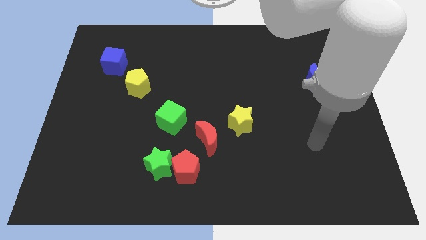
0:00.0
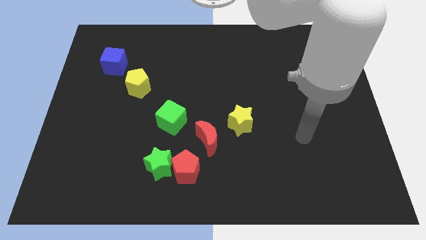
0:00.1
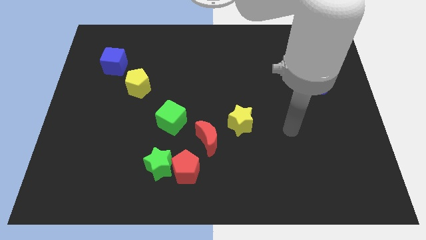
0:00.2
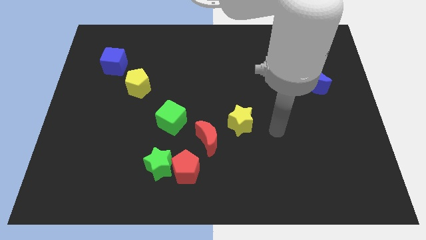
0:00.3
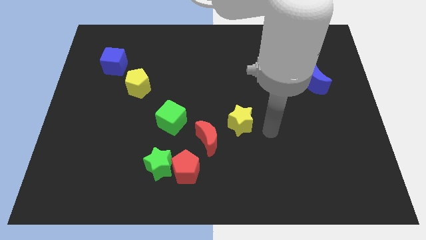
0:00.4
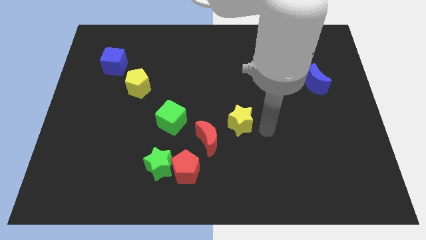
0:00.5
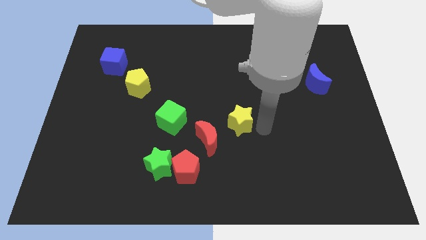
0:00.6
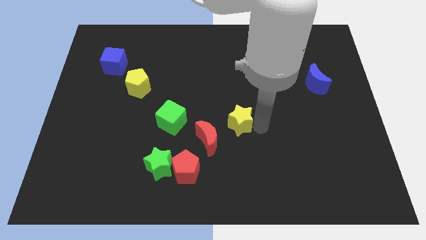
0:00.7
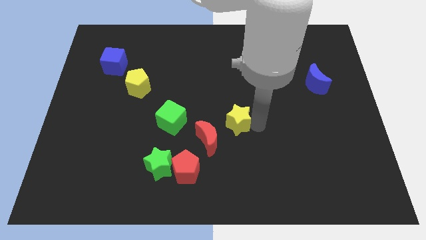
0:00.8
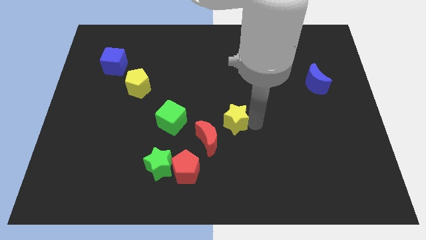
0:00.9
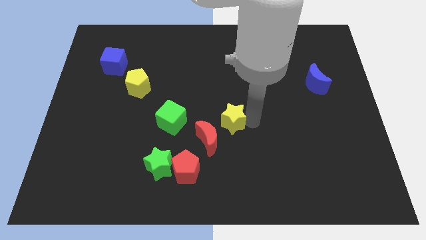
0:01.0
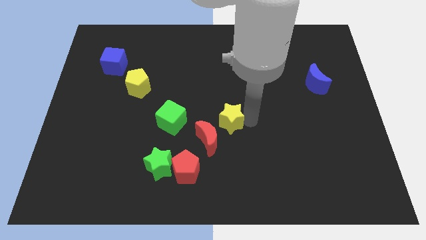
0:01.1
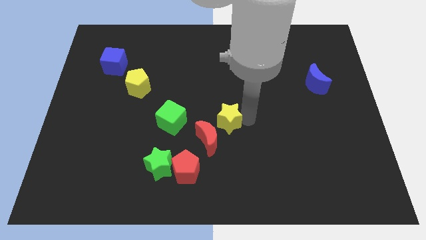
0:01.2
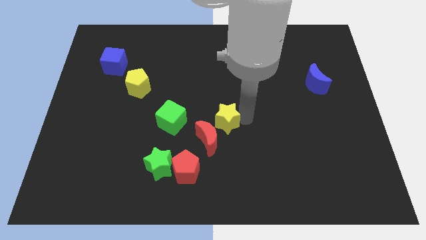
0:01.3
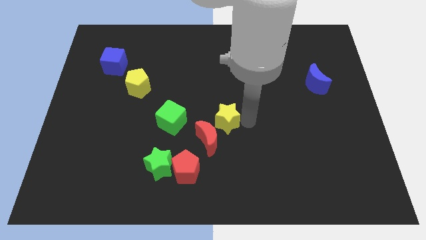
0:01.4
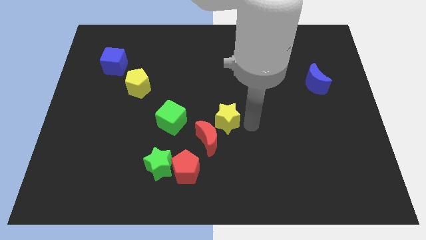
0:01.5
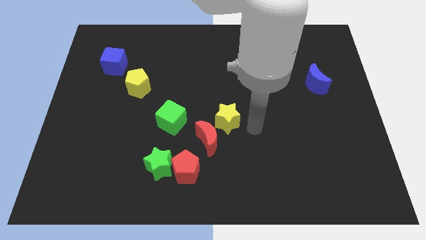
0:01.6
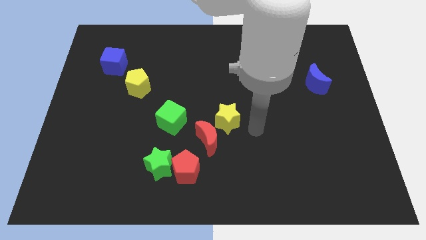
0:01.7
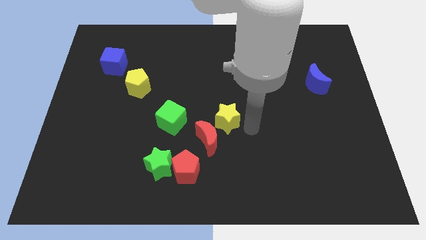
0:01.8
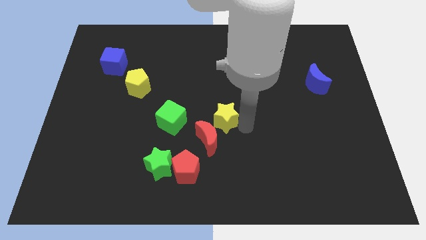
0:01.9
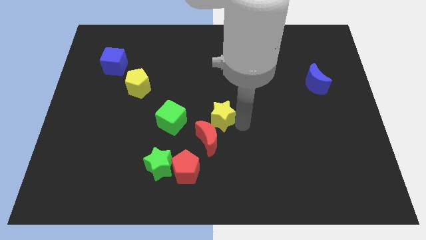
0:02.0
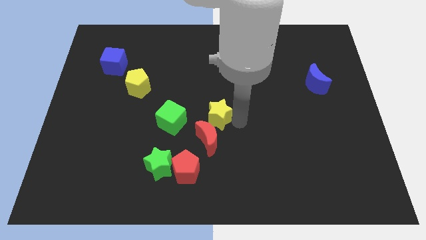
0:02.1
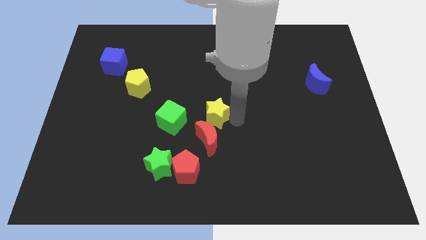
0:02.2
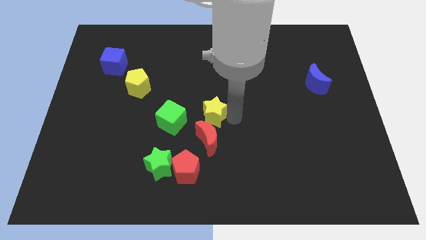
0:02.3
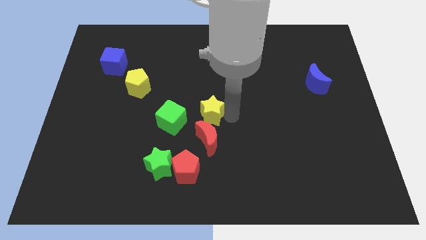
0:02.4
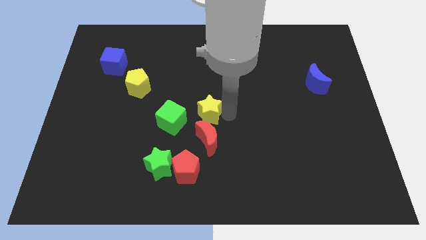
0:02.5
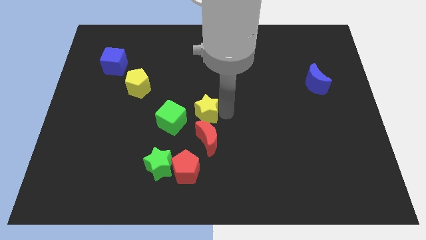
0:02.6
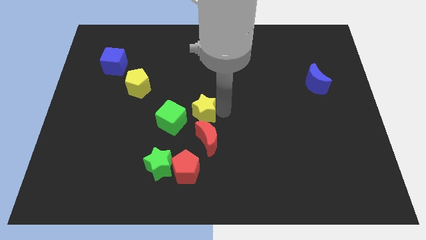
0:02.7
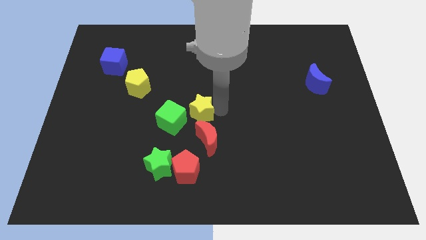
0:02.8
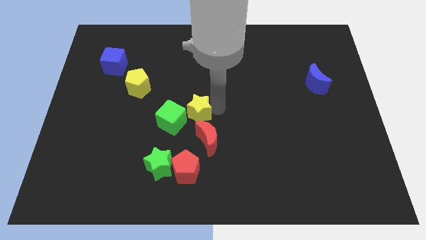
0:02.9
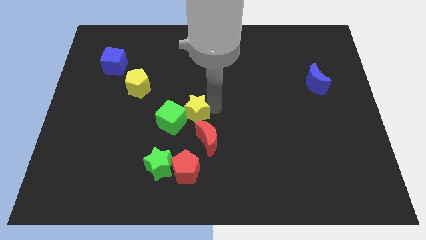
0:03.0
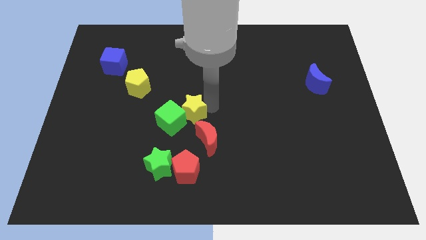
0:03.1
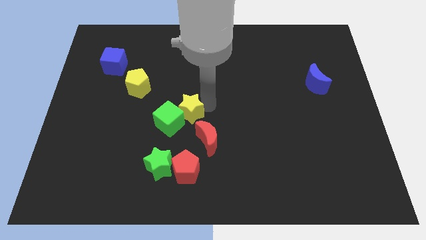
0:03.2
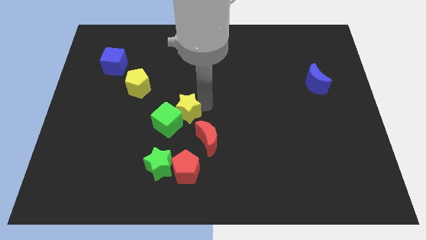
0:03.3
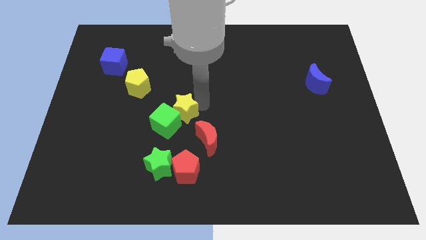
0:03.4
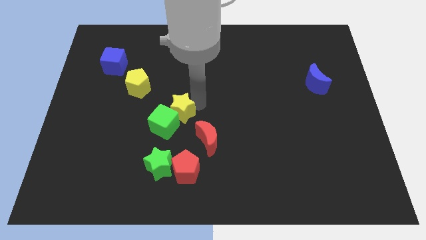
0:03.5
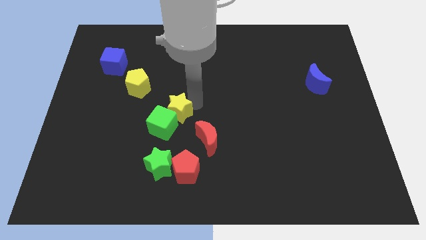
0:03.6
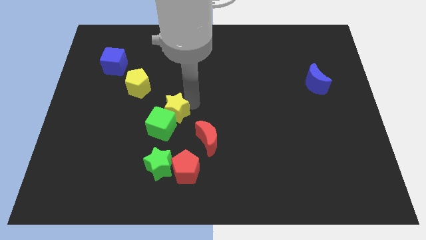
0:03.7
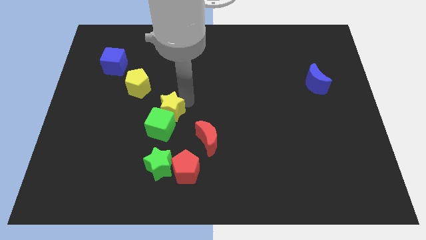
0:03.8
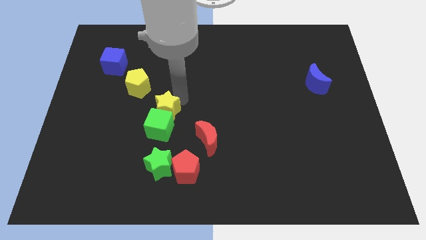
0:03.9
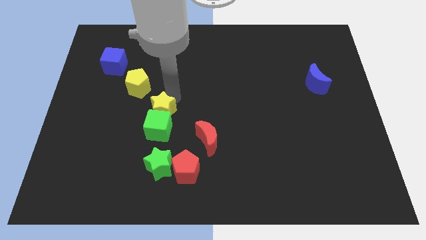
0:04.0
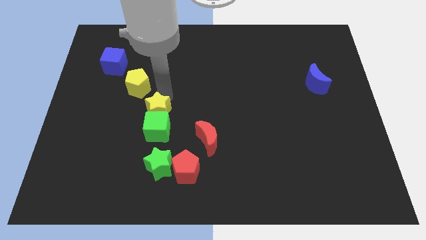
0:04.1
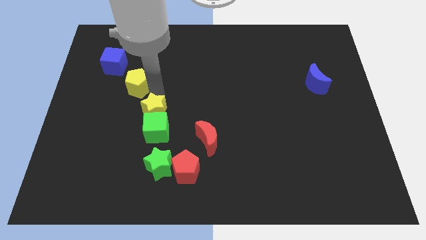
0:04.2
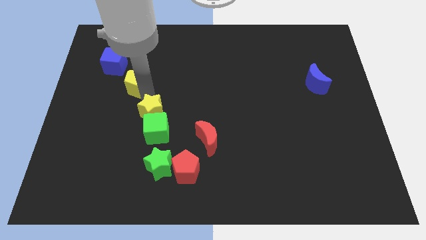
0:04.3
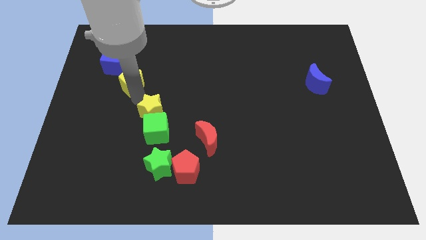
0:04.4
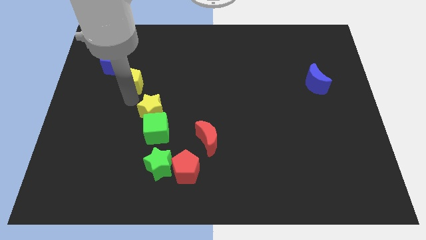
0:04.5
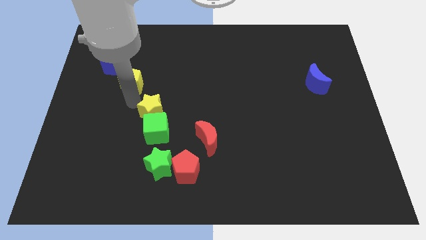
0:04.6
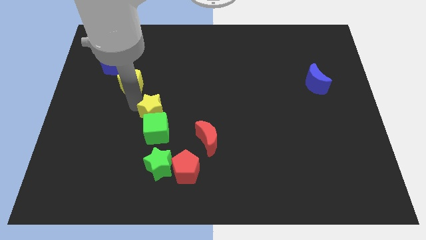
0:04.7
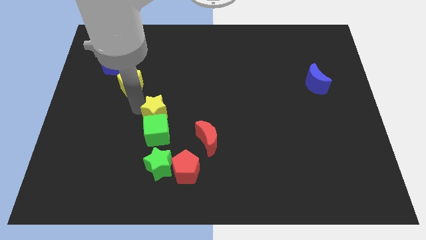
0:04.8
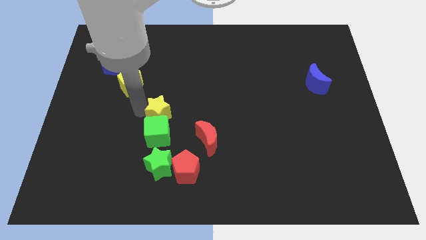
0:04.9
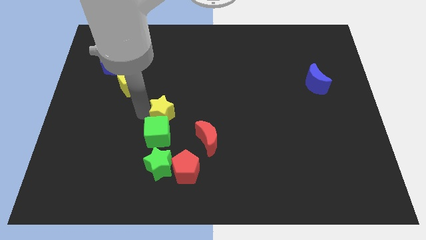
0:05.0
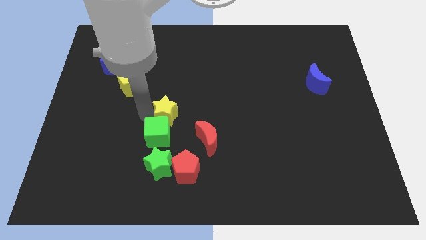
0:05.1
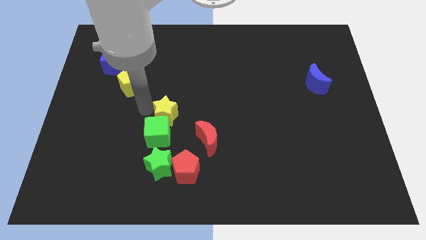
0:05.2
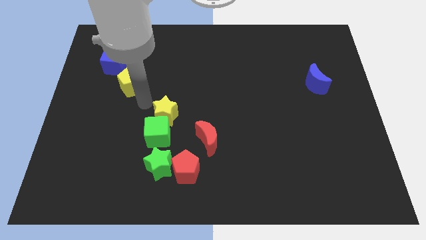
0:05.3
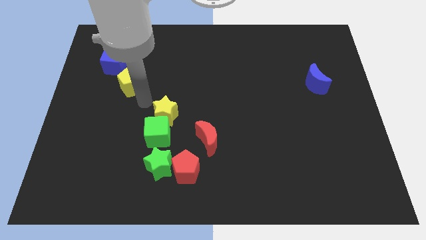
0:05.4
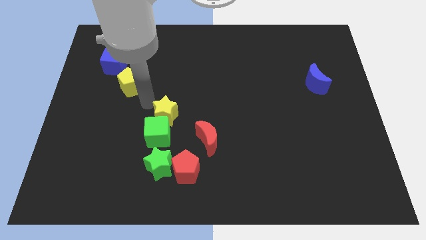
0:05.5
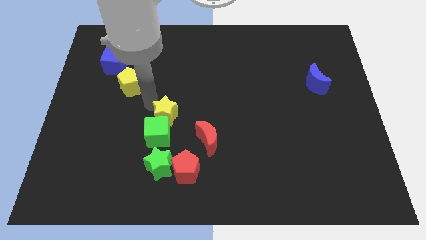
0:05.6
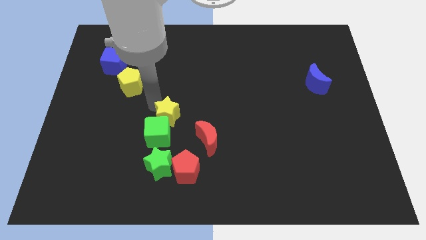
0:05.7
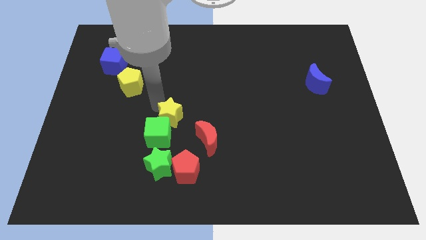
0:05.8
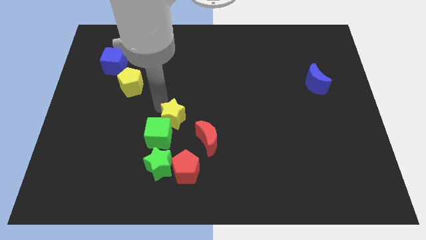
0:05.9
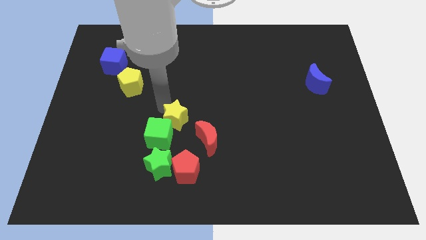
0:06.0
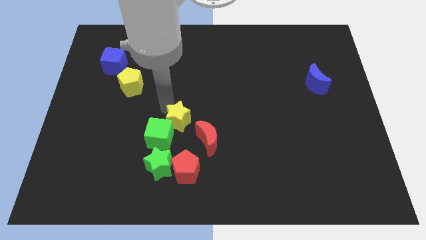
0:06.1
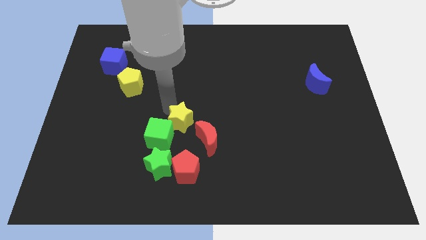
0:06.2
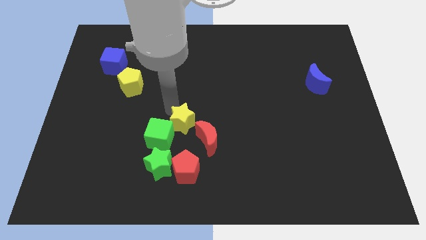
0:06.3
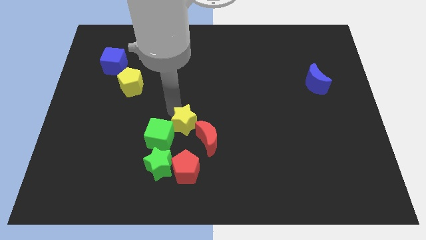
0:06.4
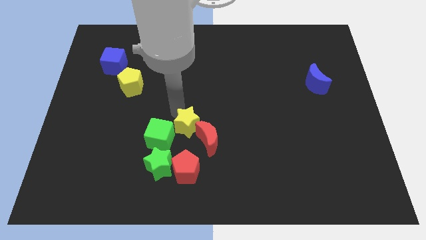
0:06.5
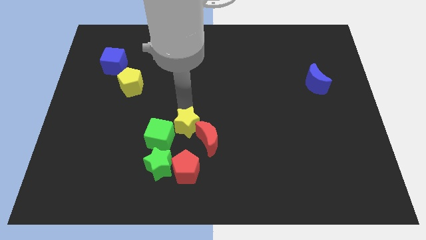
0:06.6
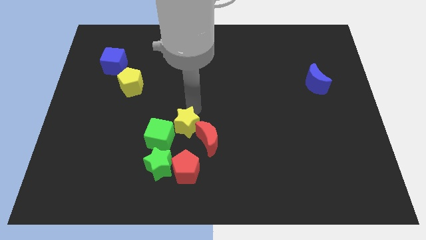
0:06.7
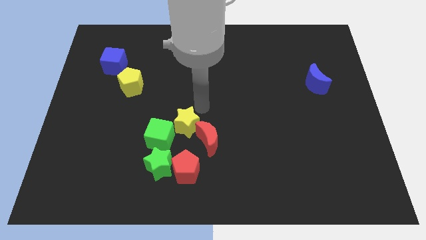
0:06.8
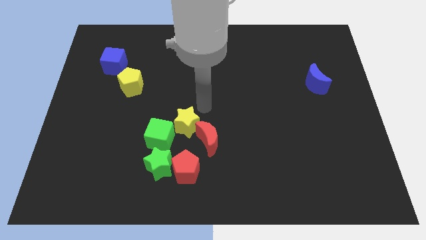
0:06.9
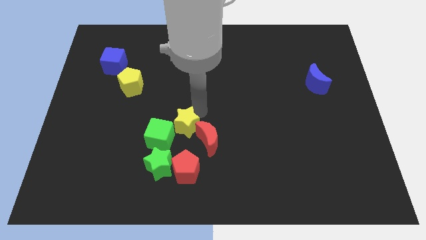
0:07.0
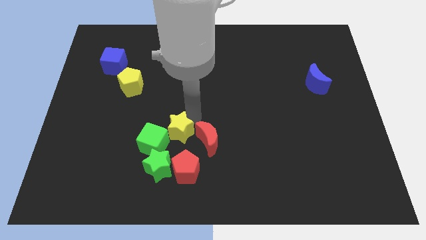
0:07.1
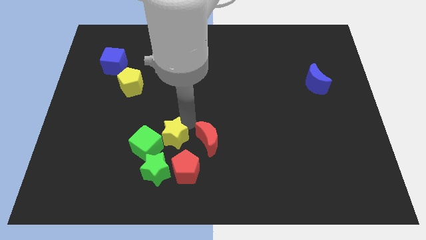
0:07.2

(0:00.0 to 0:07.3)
push the yellow star to the top left of the red pentagon
